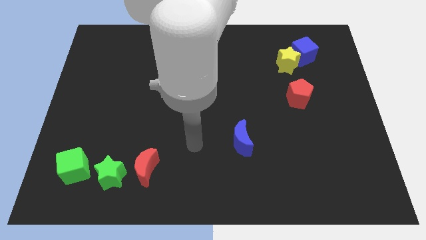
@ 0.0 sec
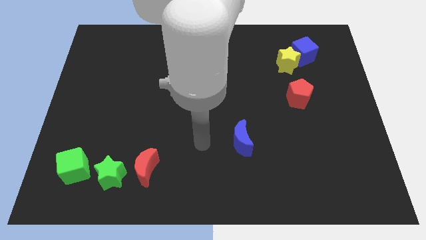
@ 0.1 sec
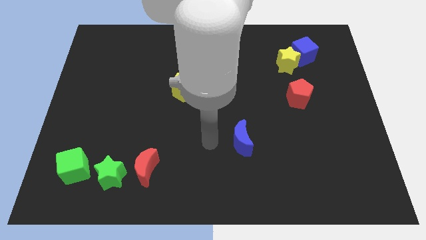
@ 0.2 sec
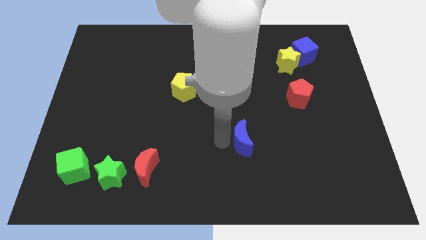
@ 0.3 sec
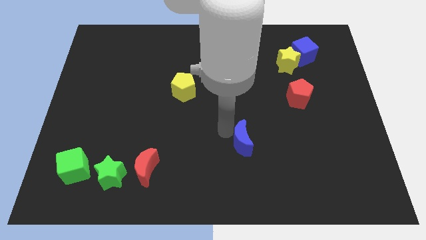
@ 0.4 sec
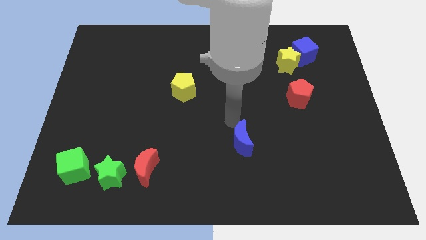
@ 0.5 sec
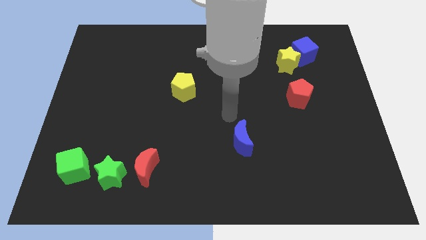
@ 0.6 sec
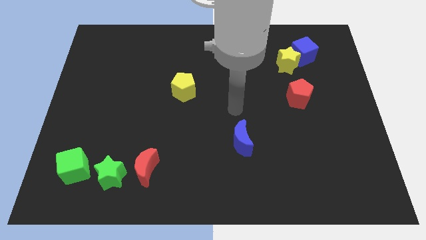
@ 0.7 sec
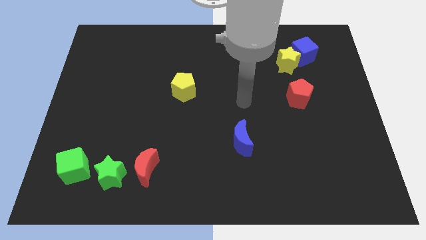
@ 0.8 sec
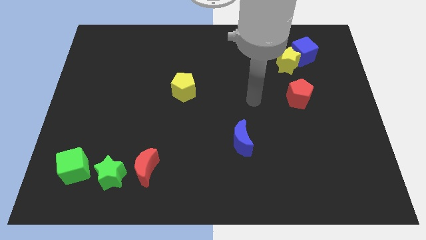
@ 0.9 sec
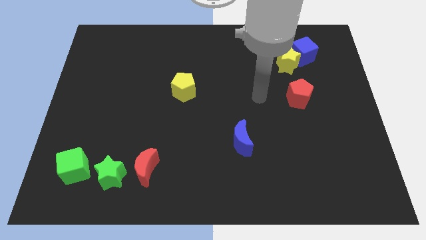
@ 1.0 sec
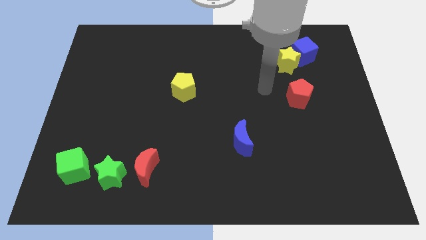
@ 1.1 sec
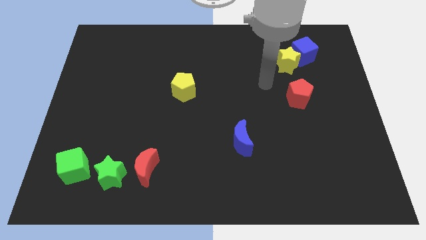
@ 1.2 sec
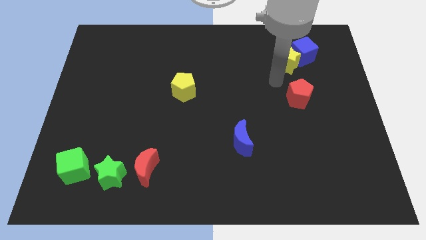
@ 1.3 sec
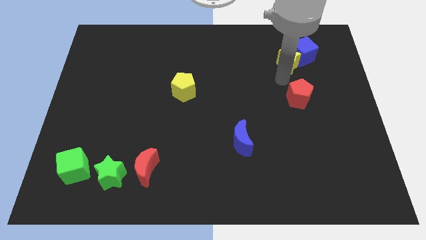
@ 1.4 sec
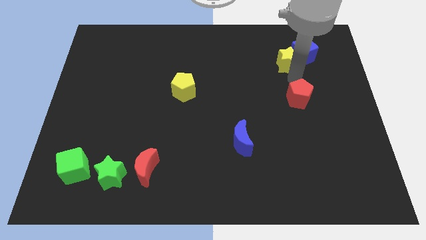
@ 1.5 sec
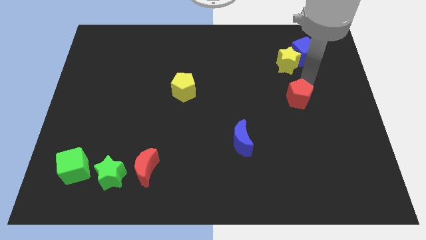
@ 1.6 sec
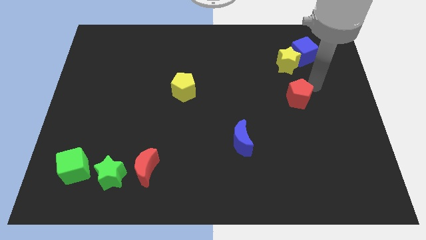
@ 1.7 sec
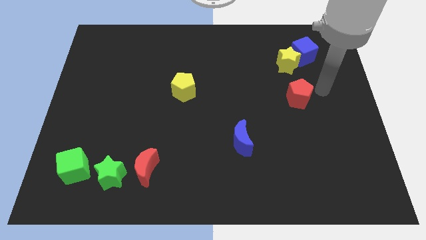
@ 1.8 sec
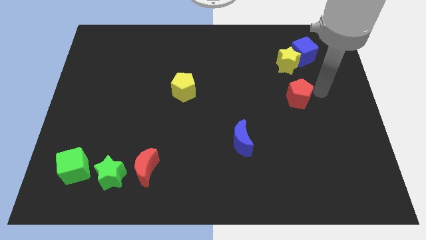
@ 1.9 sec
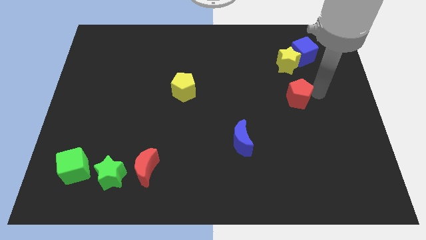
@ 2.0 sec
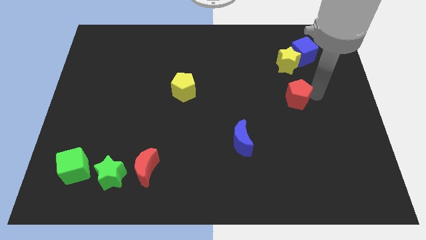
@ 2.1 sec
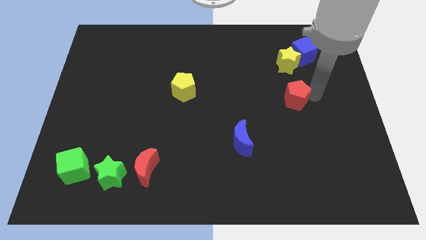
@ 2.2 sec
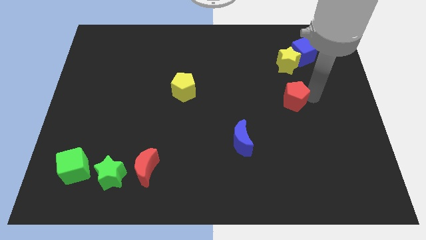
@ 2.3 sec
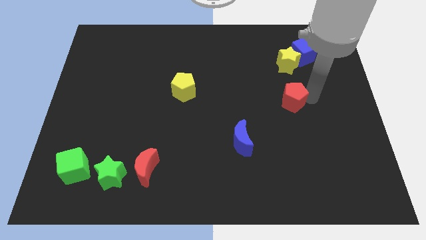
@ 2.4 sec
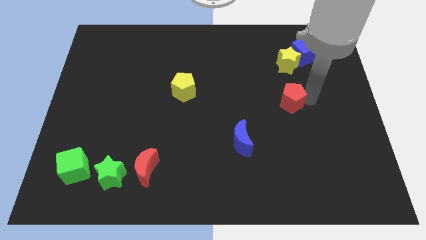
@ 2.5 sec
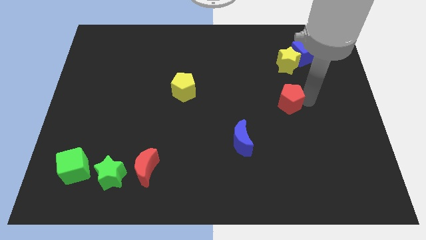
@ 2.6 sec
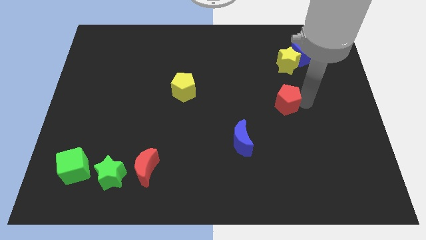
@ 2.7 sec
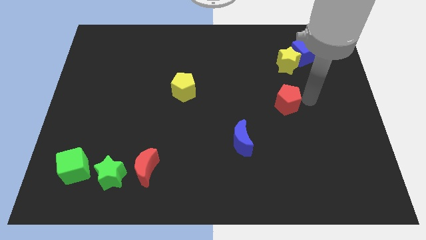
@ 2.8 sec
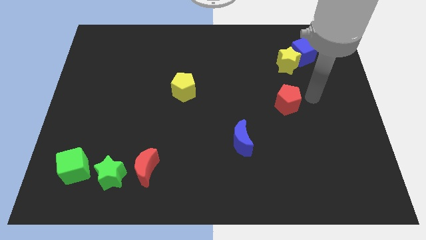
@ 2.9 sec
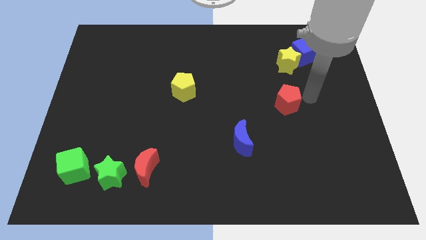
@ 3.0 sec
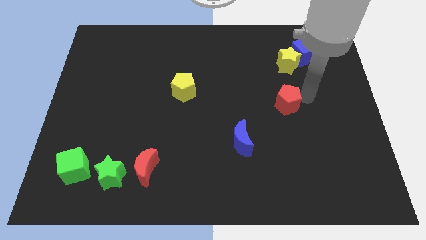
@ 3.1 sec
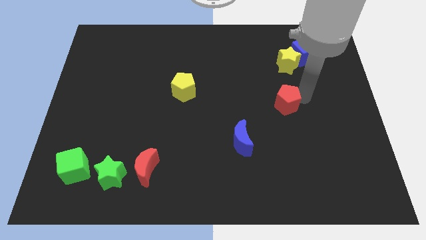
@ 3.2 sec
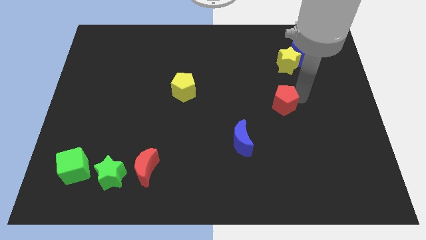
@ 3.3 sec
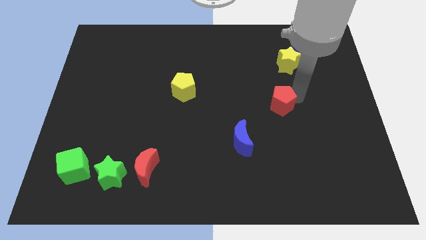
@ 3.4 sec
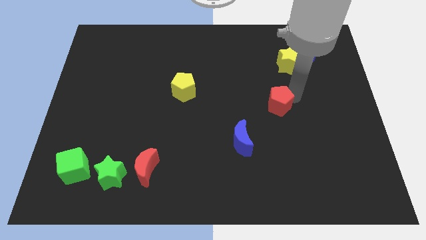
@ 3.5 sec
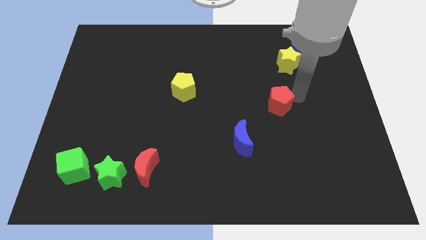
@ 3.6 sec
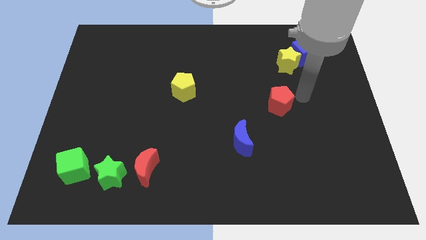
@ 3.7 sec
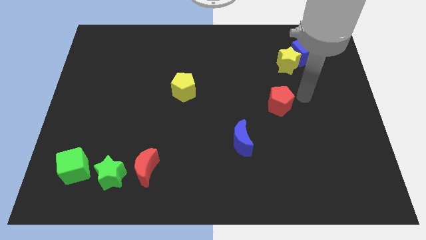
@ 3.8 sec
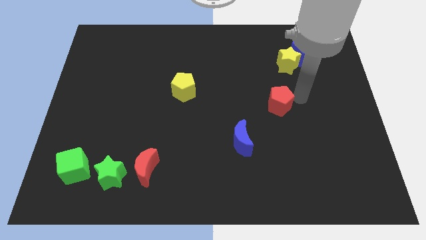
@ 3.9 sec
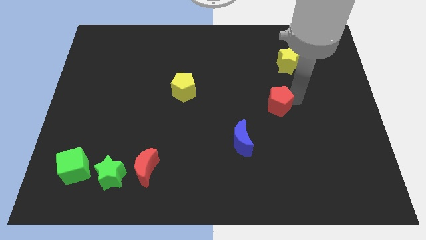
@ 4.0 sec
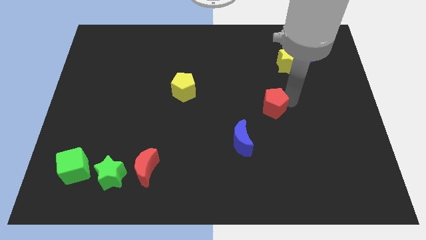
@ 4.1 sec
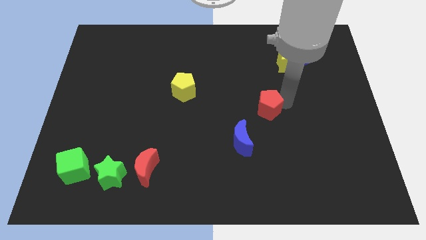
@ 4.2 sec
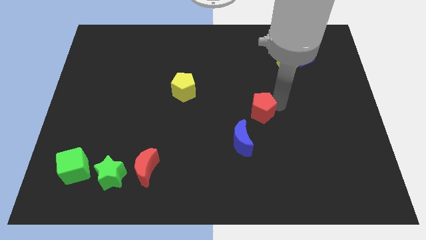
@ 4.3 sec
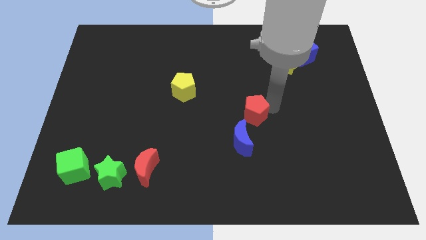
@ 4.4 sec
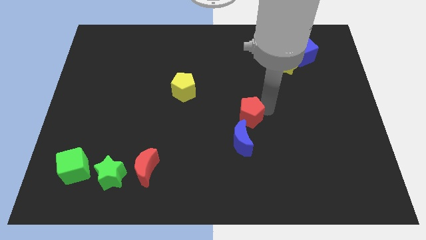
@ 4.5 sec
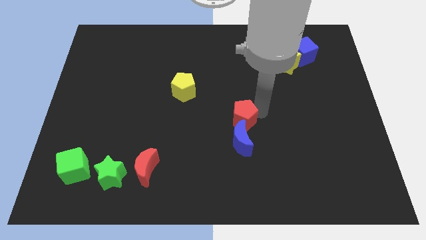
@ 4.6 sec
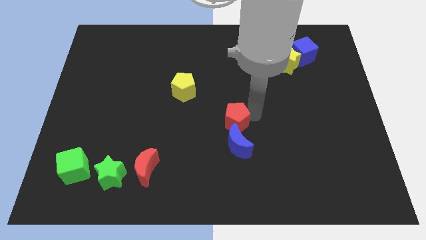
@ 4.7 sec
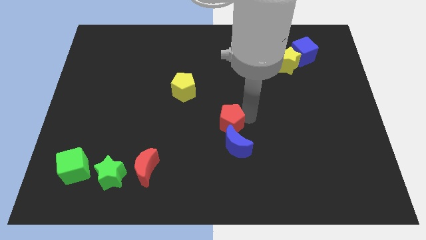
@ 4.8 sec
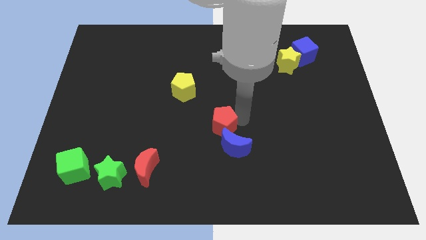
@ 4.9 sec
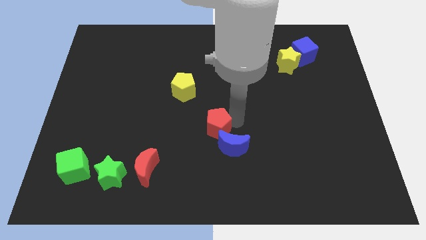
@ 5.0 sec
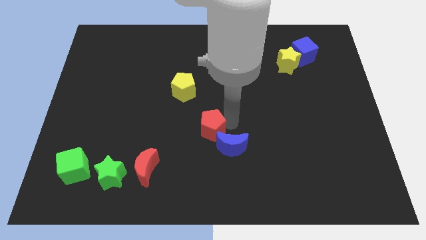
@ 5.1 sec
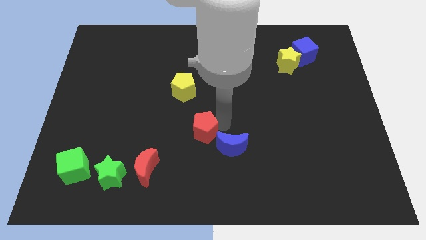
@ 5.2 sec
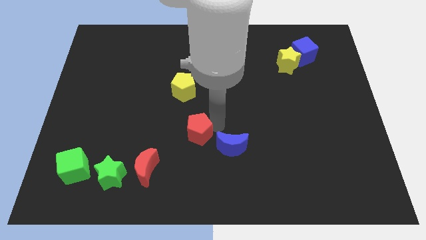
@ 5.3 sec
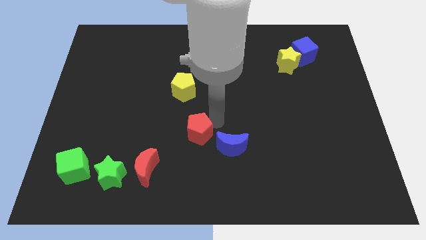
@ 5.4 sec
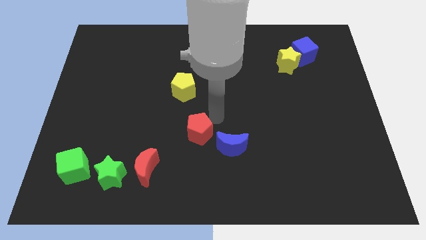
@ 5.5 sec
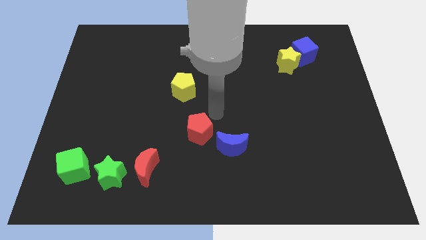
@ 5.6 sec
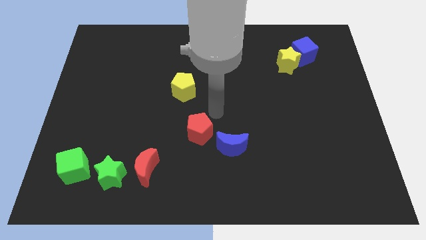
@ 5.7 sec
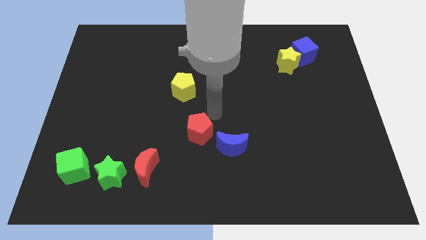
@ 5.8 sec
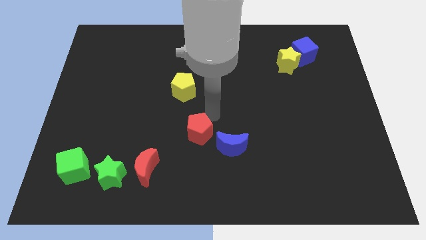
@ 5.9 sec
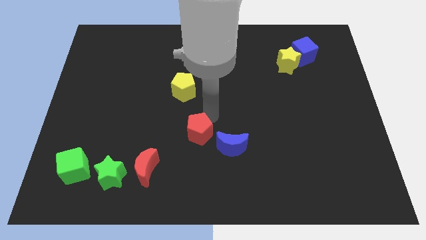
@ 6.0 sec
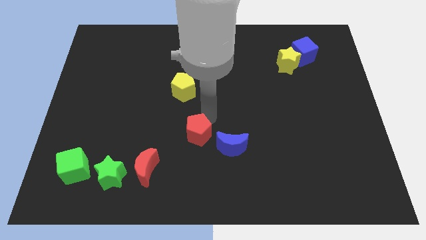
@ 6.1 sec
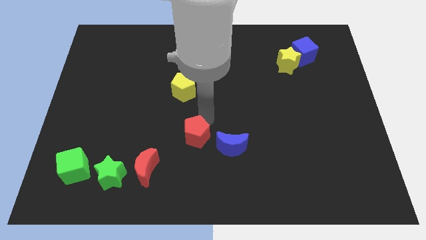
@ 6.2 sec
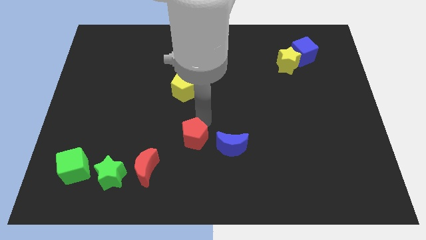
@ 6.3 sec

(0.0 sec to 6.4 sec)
move the red pentagon to the top right side of the red moon
